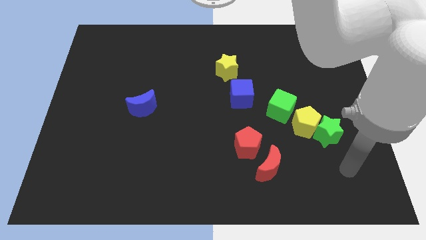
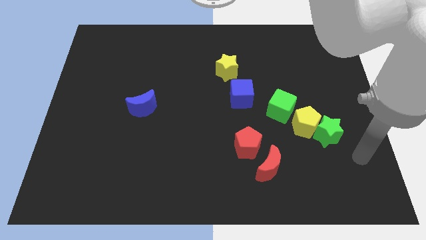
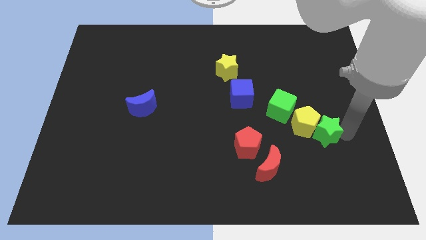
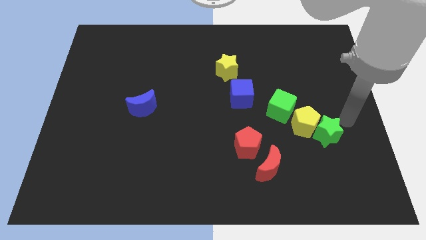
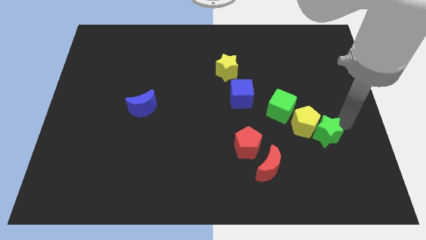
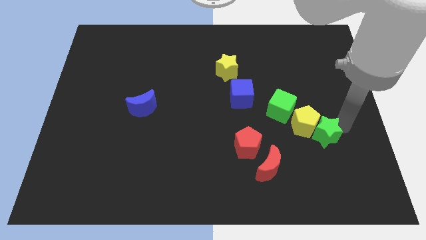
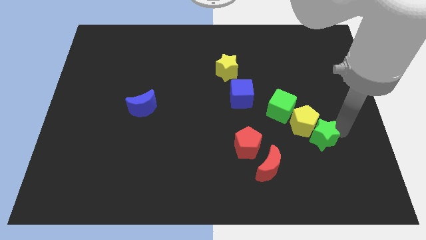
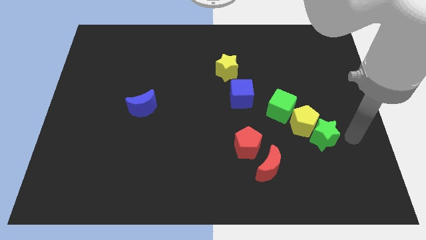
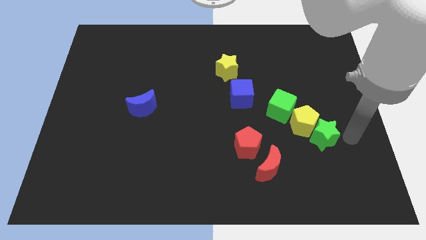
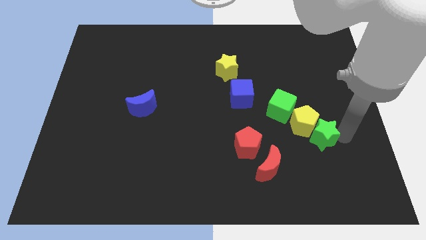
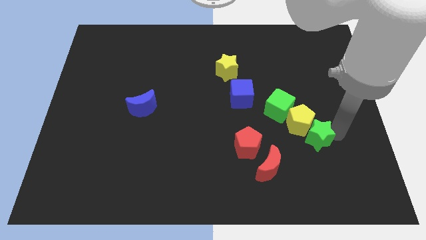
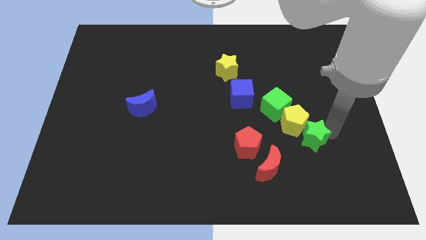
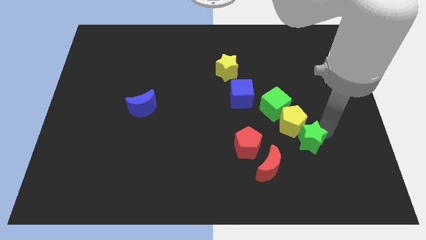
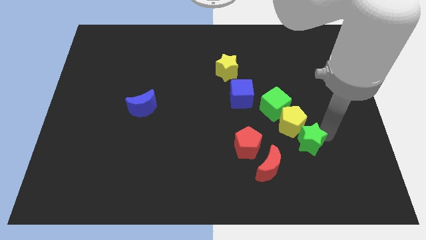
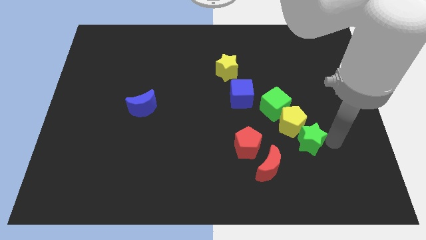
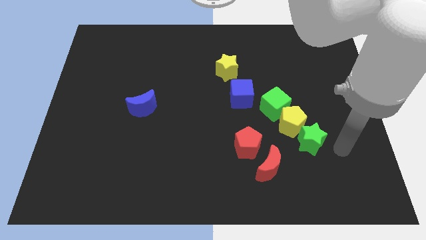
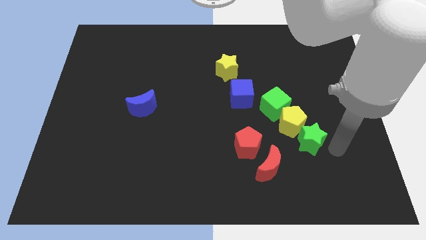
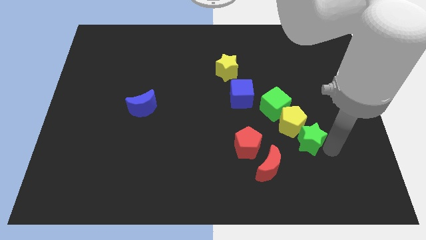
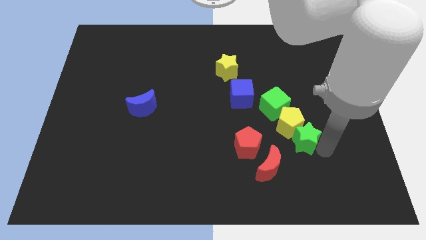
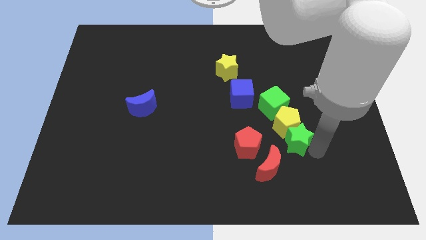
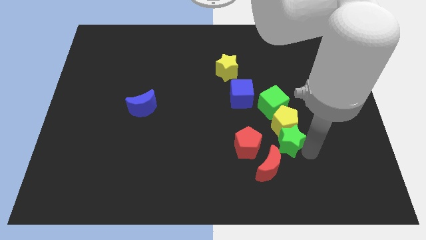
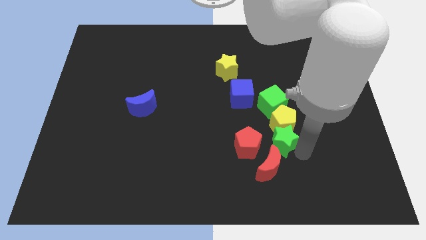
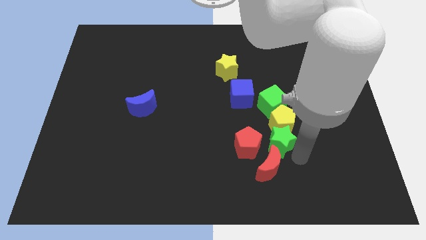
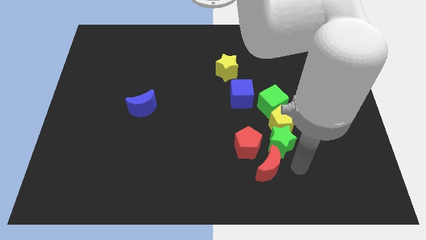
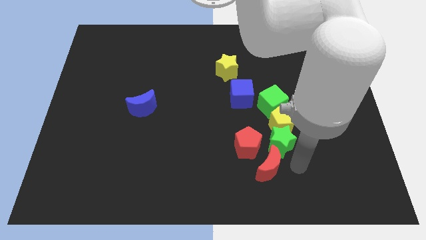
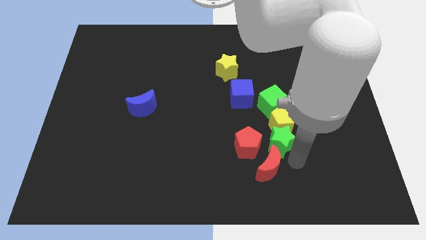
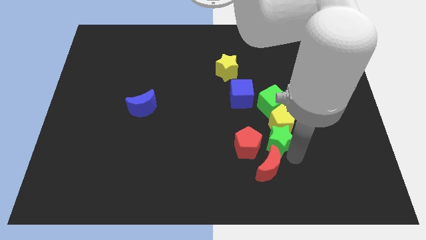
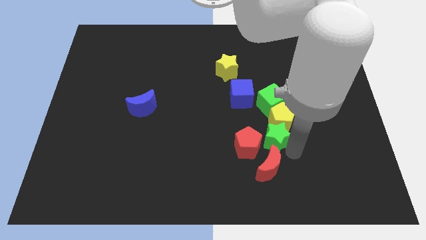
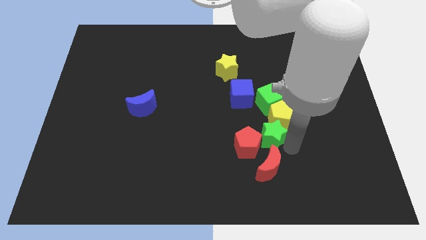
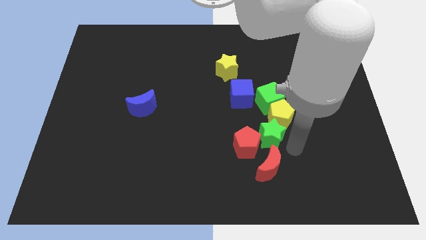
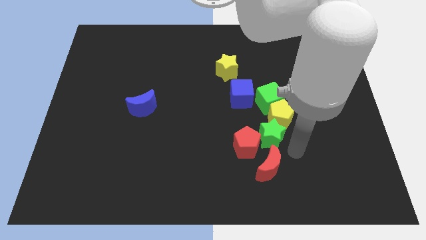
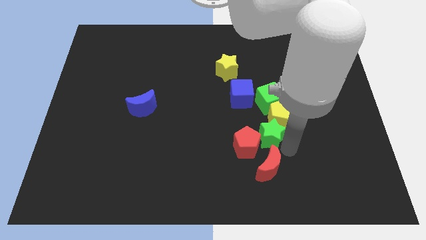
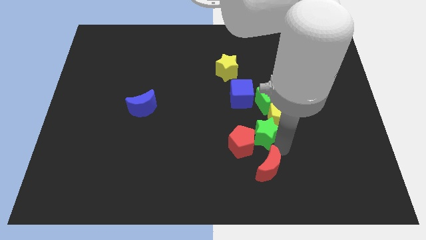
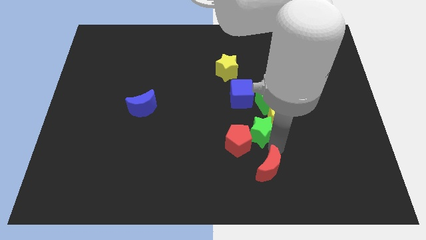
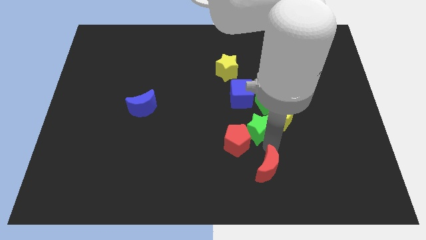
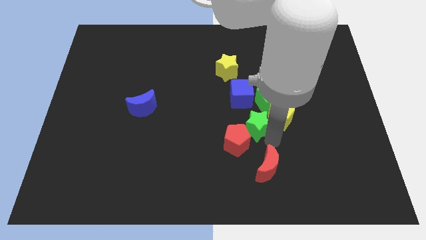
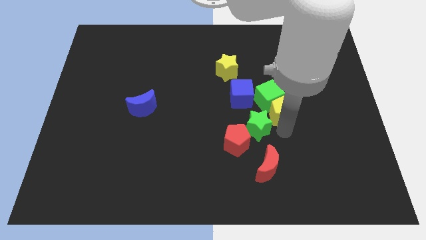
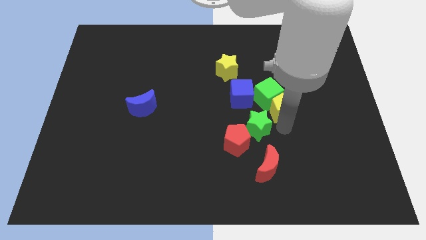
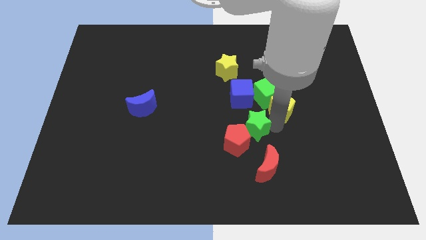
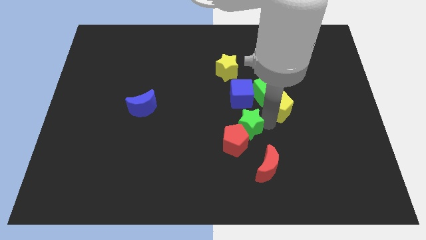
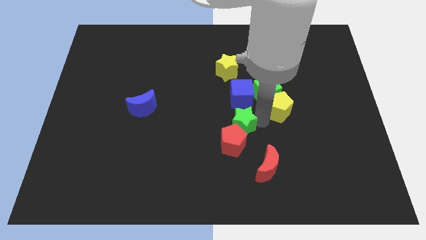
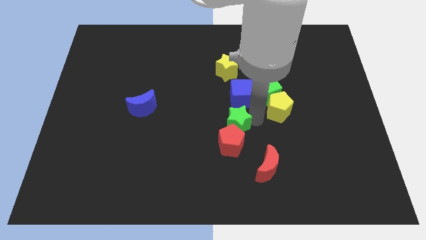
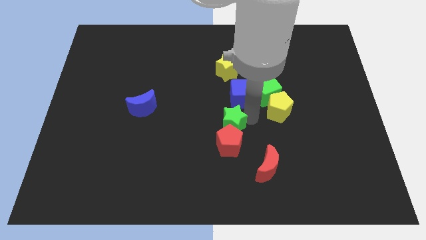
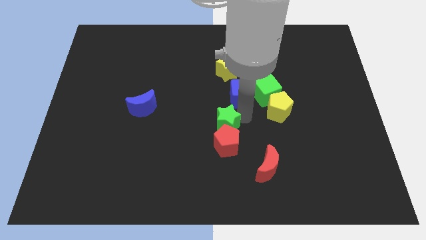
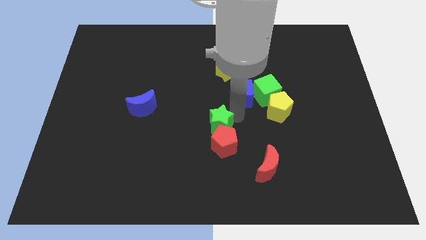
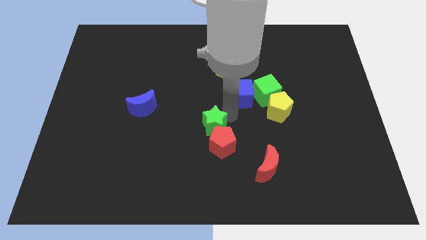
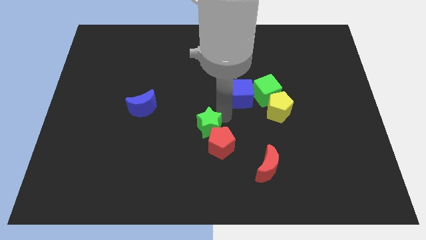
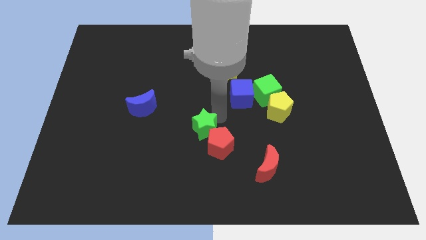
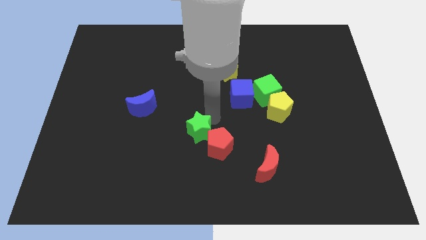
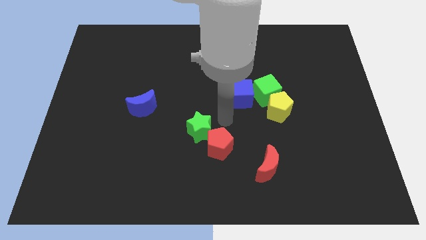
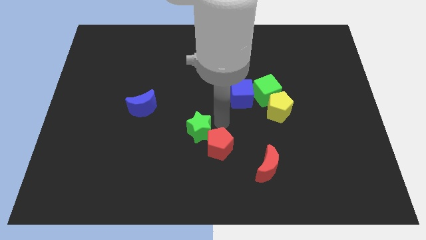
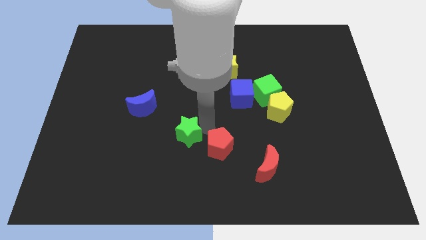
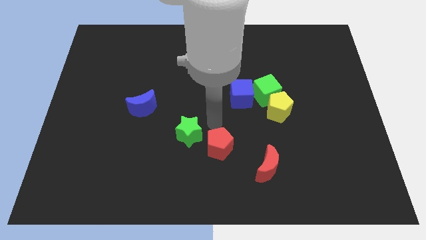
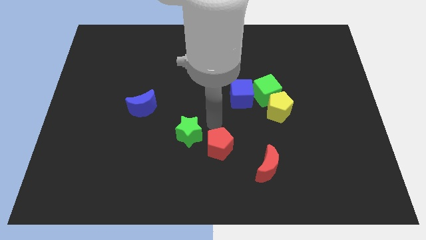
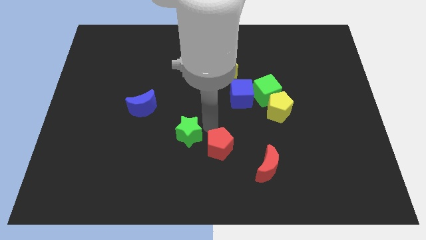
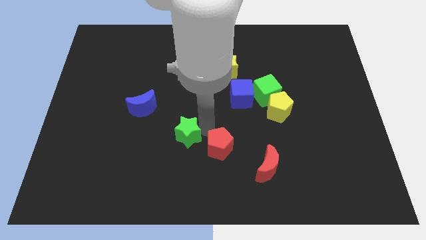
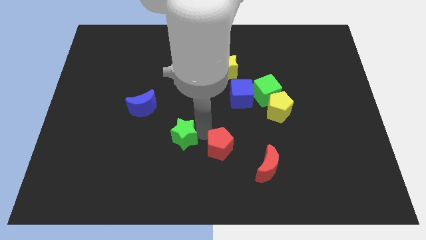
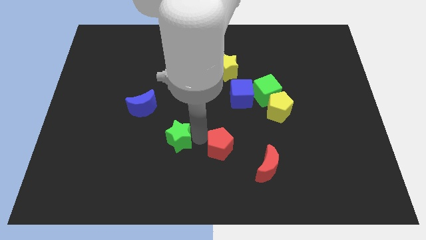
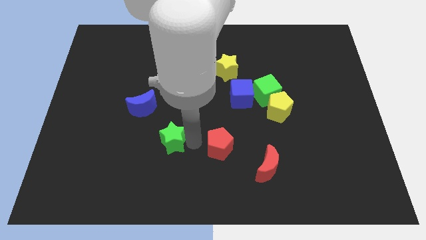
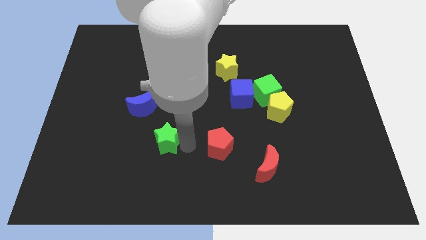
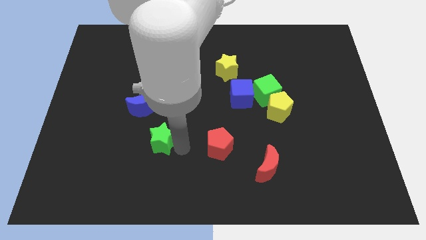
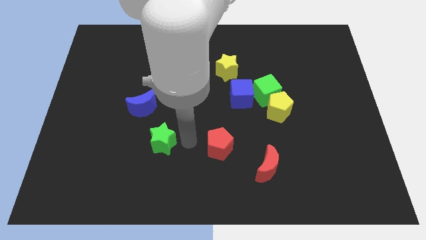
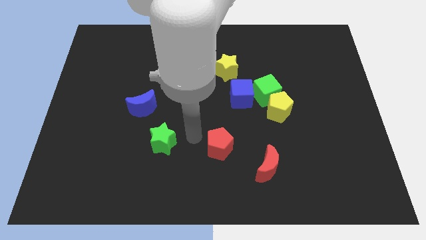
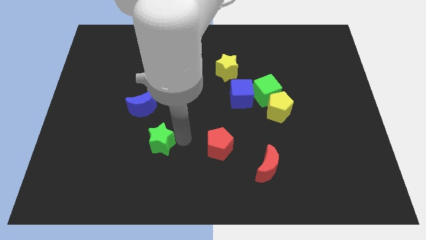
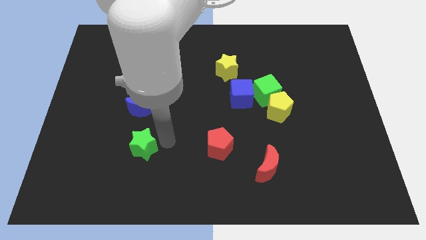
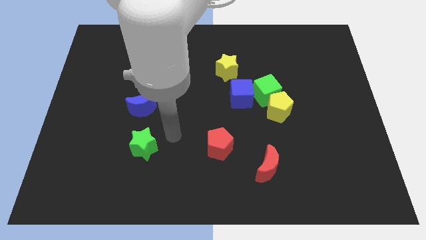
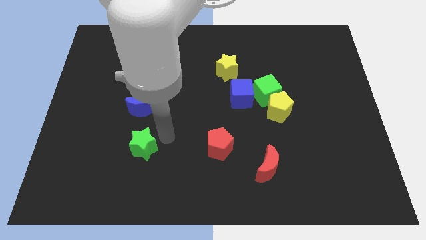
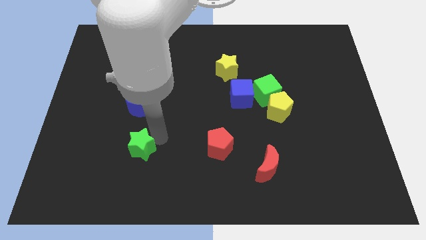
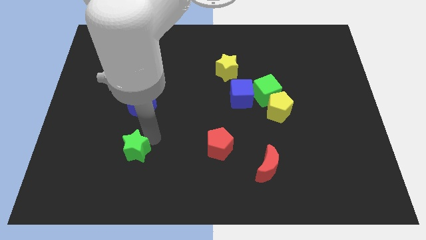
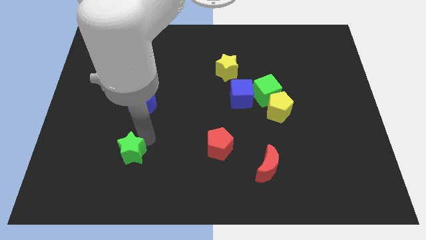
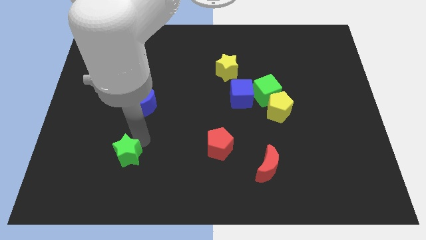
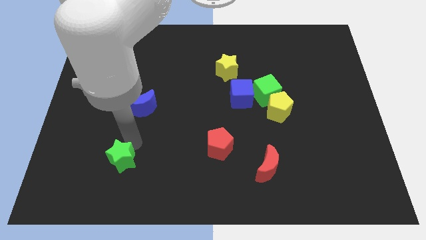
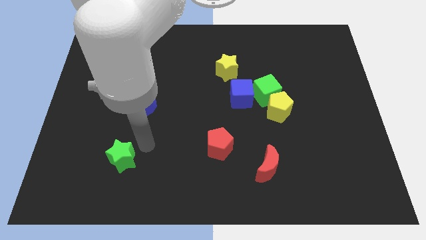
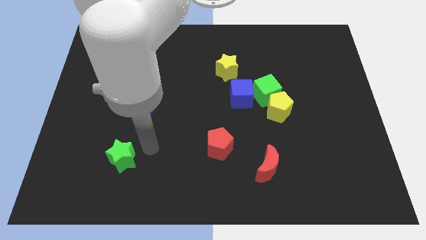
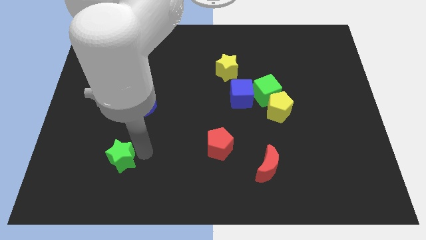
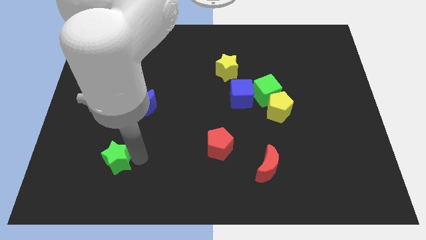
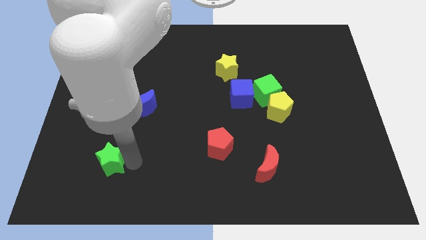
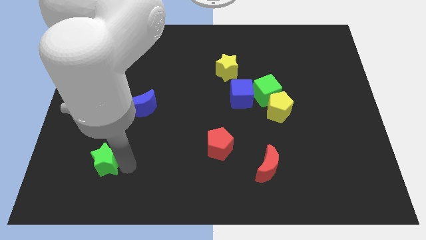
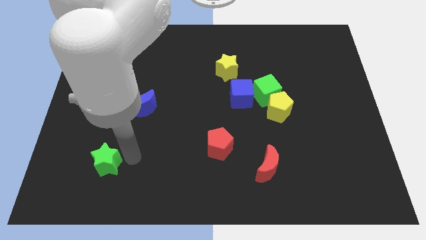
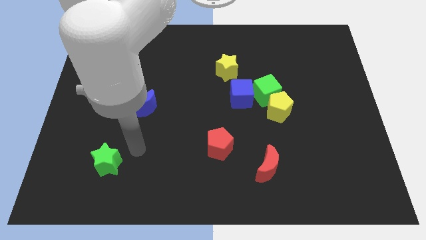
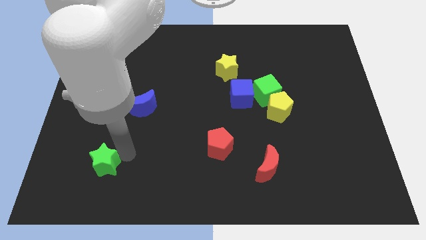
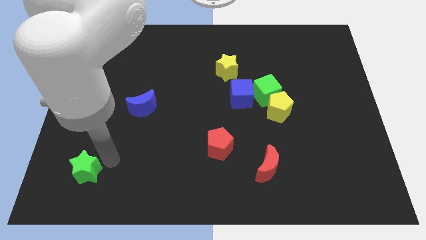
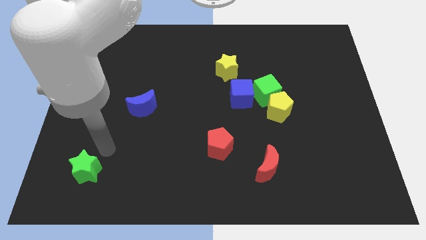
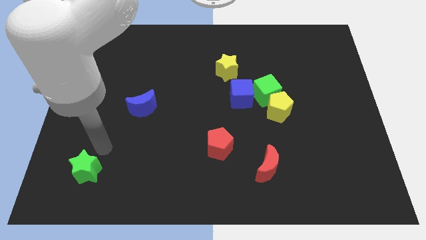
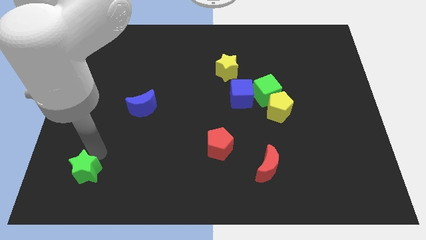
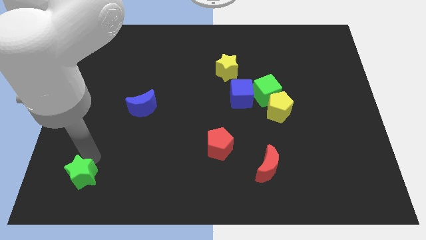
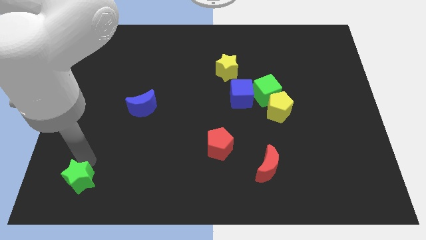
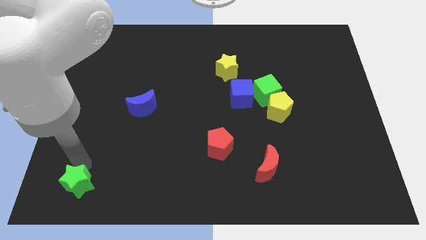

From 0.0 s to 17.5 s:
slide the green star to the bottom left corner
